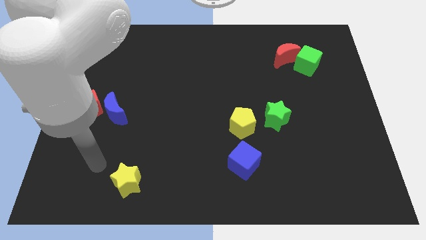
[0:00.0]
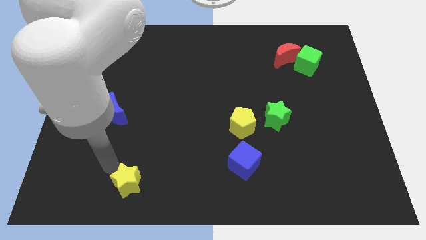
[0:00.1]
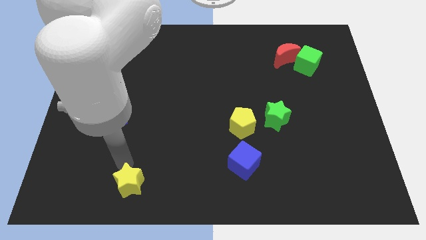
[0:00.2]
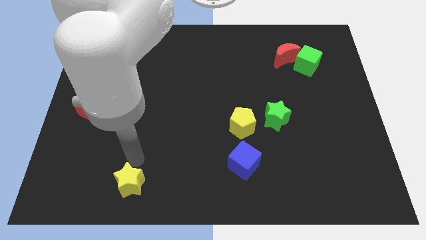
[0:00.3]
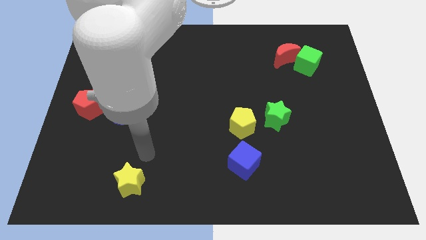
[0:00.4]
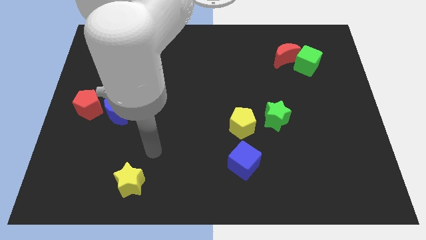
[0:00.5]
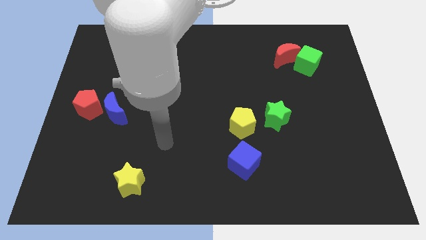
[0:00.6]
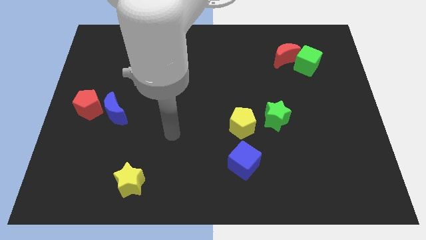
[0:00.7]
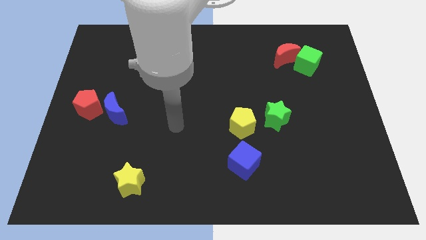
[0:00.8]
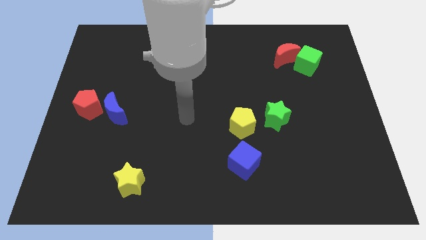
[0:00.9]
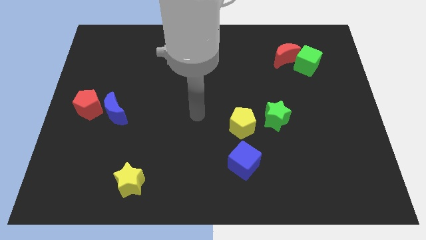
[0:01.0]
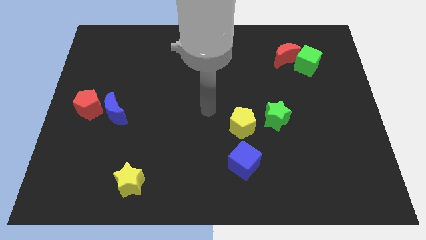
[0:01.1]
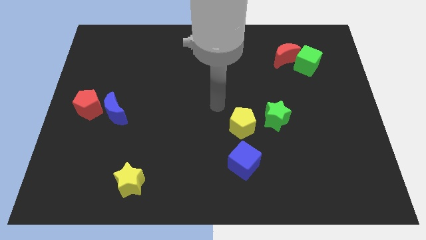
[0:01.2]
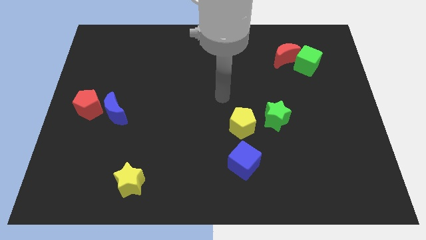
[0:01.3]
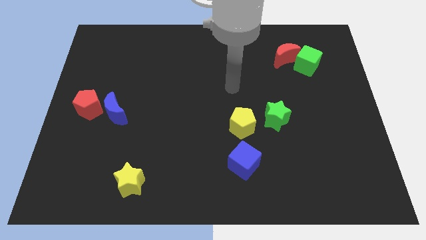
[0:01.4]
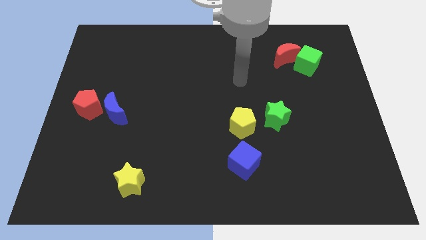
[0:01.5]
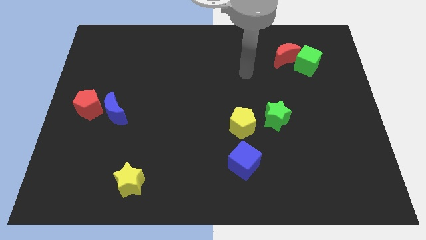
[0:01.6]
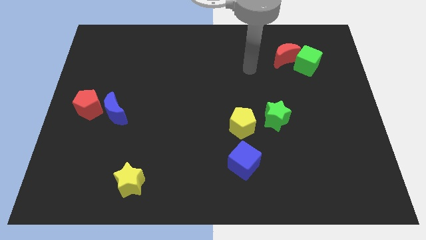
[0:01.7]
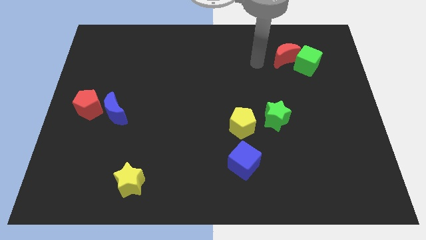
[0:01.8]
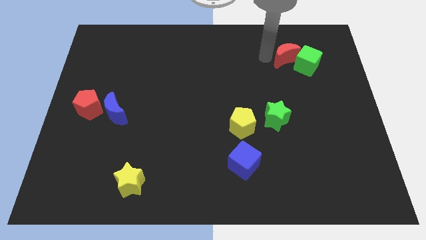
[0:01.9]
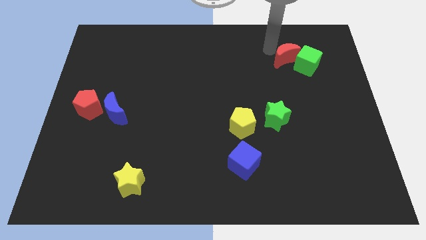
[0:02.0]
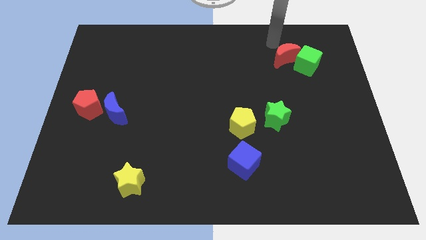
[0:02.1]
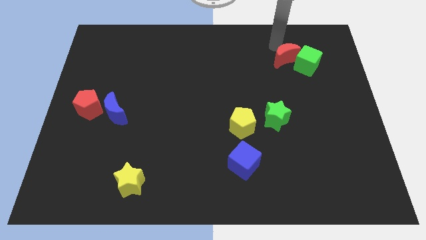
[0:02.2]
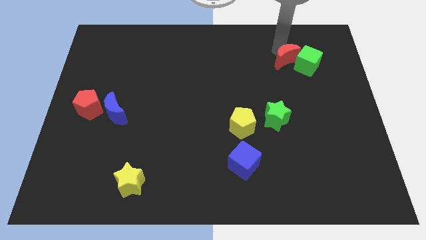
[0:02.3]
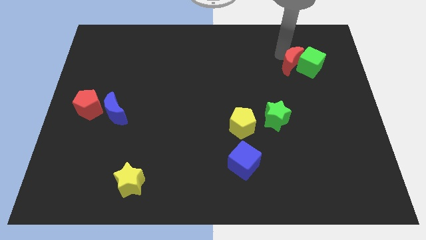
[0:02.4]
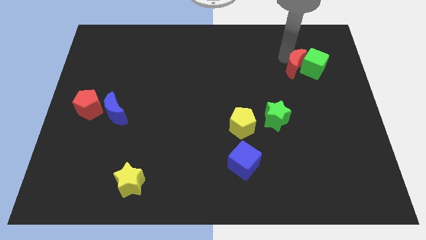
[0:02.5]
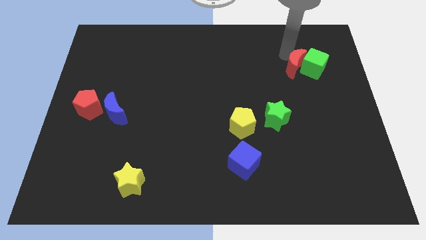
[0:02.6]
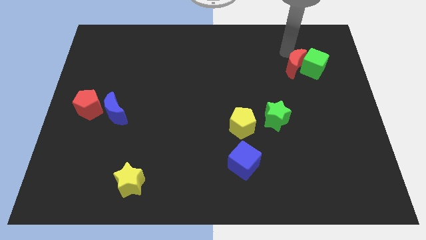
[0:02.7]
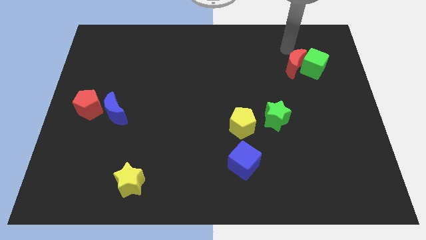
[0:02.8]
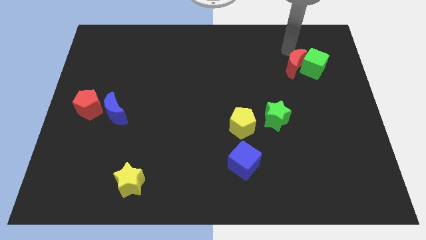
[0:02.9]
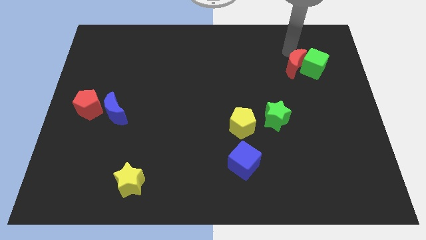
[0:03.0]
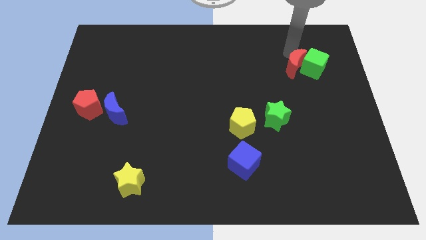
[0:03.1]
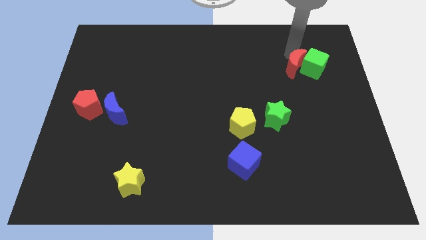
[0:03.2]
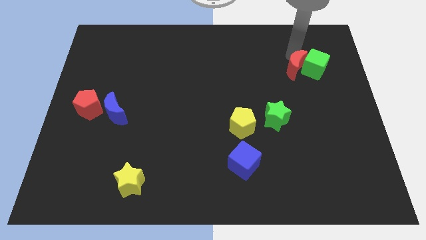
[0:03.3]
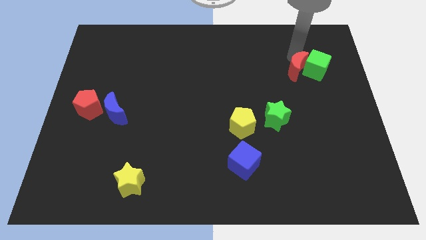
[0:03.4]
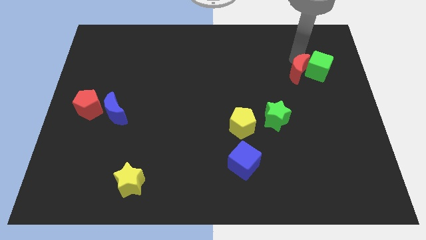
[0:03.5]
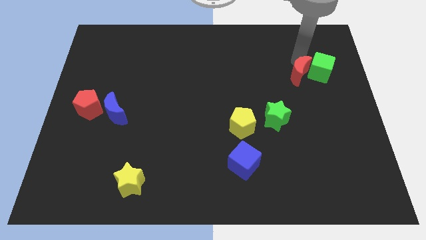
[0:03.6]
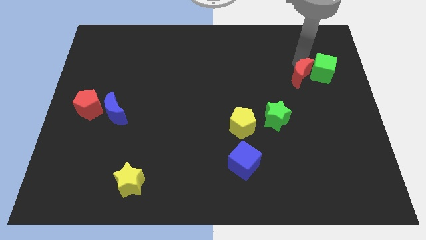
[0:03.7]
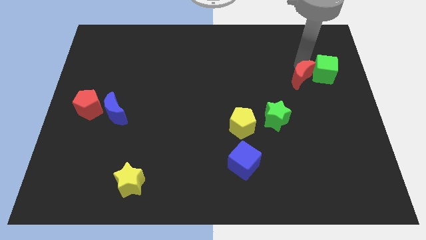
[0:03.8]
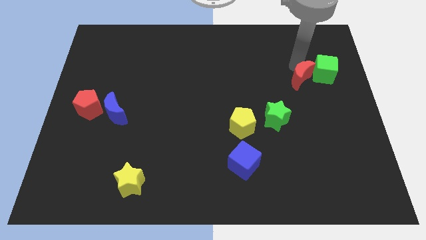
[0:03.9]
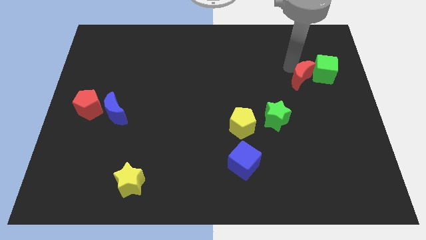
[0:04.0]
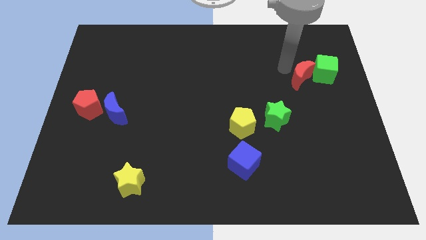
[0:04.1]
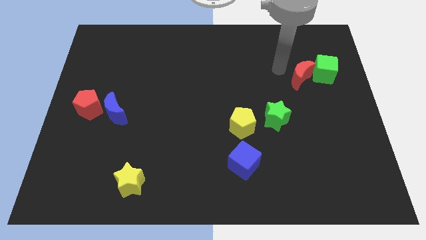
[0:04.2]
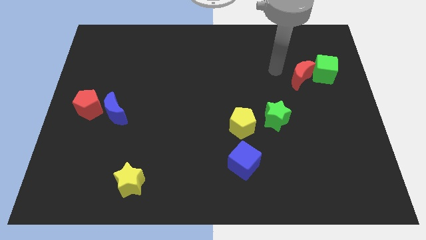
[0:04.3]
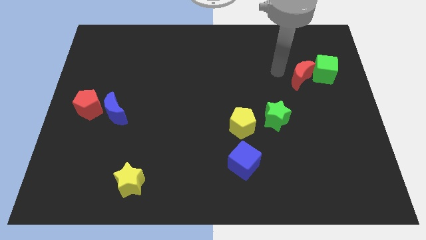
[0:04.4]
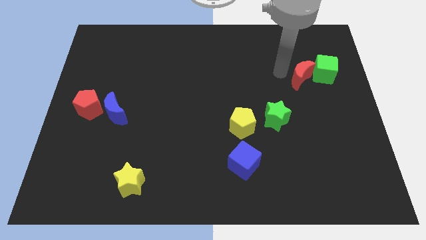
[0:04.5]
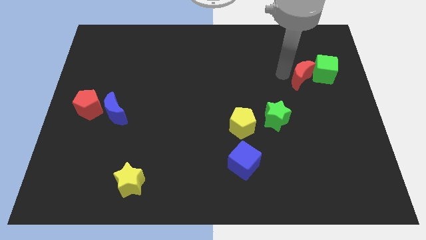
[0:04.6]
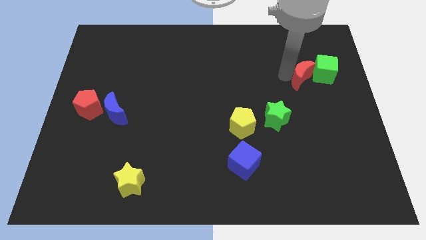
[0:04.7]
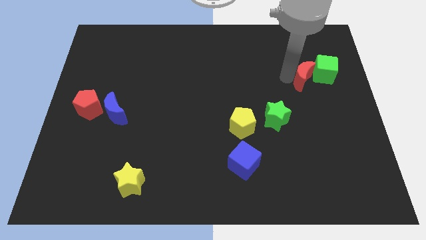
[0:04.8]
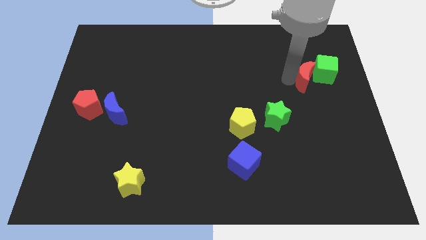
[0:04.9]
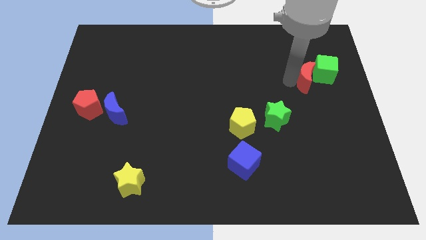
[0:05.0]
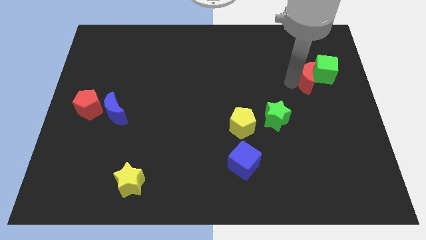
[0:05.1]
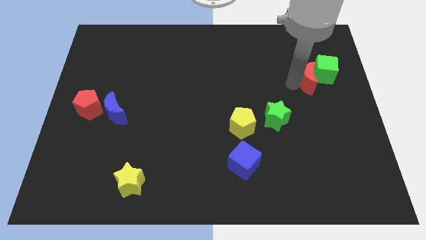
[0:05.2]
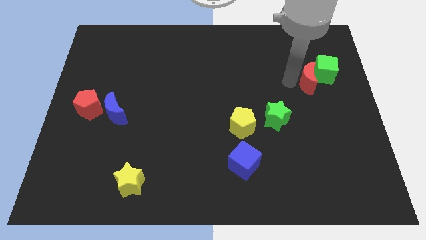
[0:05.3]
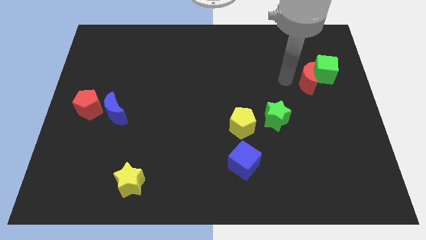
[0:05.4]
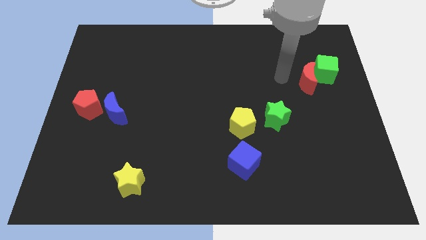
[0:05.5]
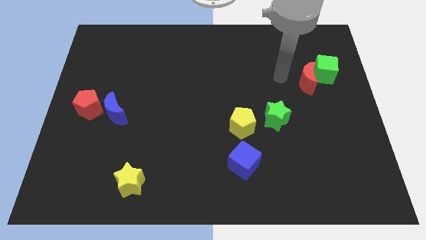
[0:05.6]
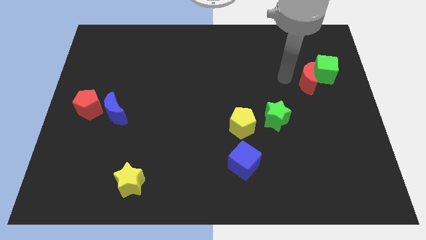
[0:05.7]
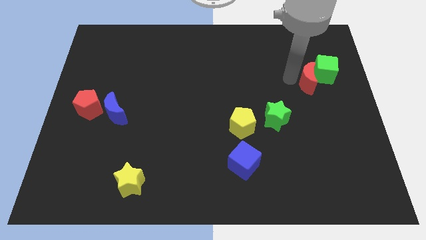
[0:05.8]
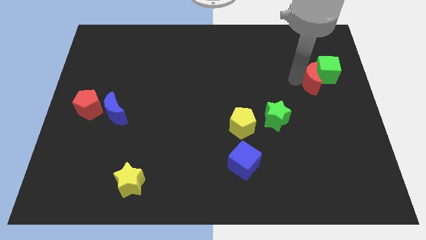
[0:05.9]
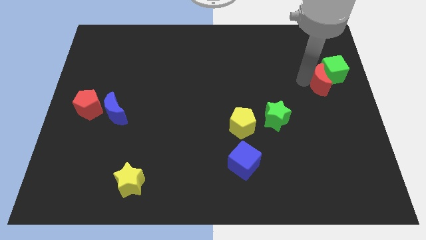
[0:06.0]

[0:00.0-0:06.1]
slide the red moon to the right side

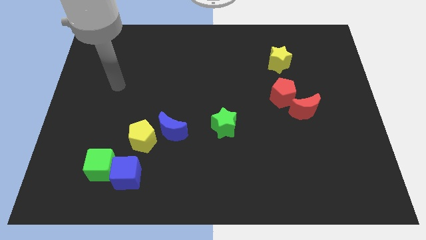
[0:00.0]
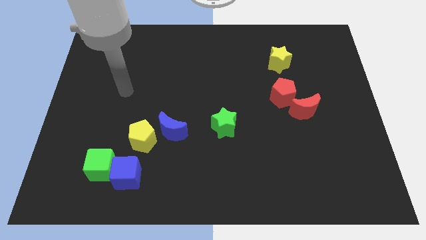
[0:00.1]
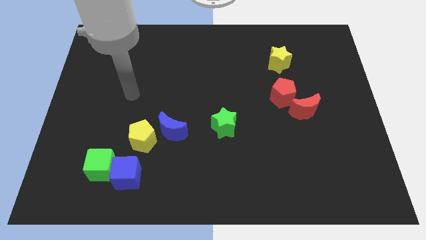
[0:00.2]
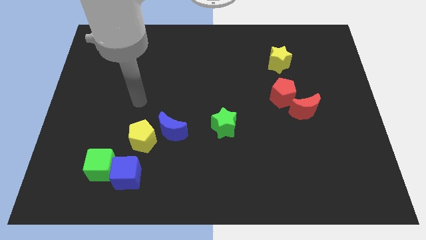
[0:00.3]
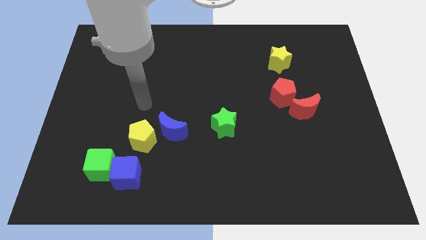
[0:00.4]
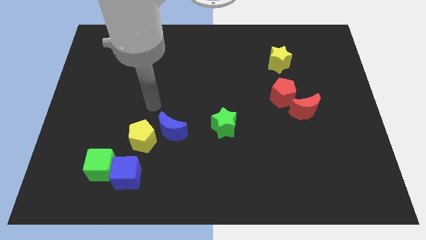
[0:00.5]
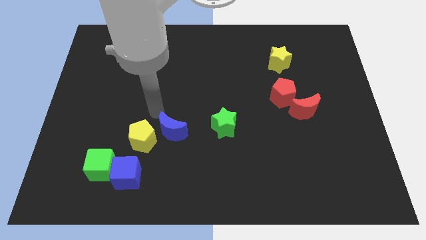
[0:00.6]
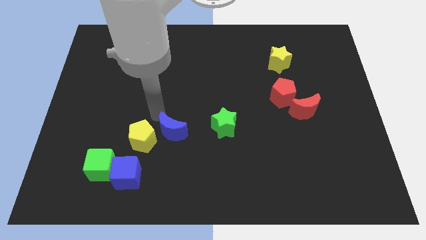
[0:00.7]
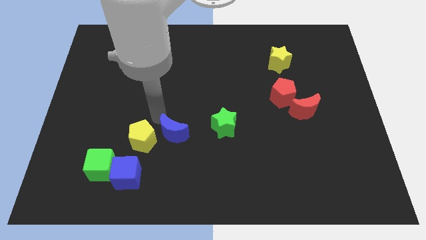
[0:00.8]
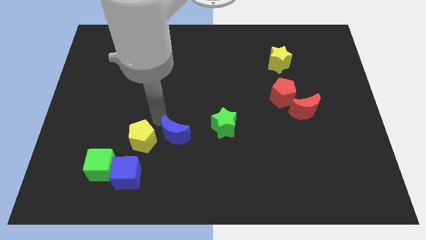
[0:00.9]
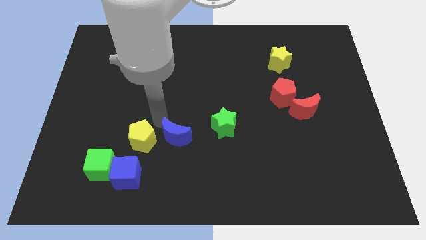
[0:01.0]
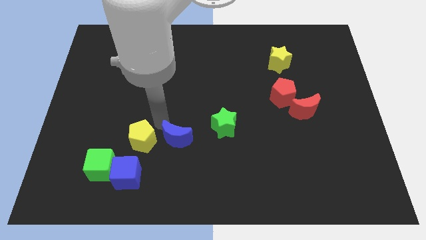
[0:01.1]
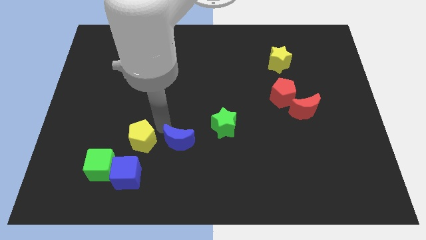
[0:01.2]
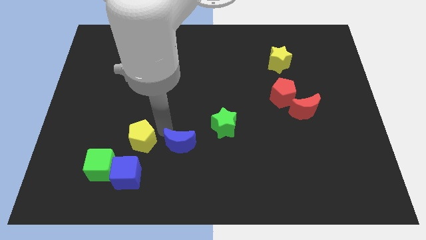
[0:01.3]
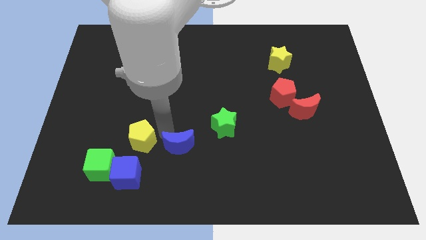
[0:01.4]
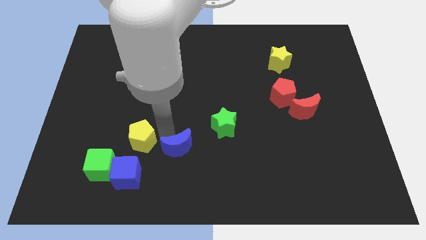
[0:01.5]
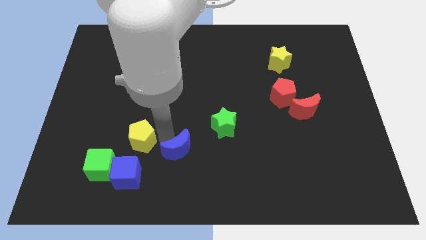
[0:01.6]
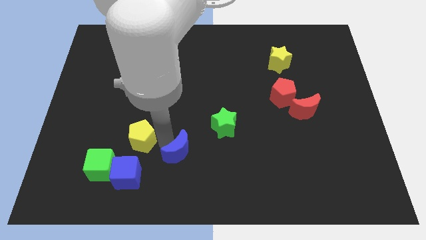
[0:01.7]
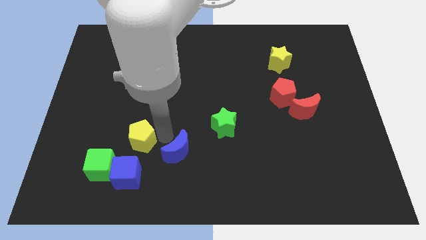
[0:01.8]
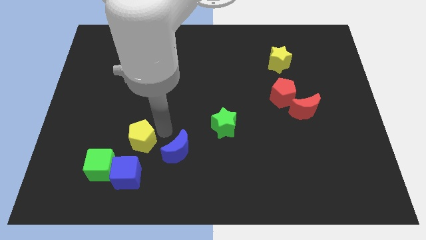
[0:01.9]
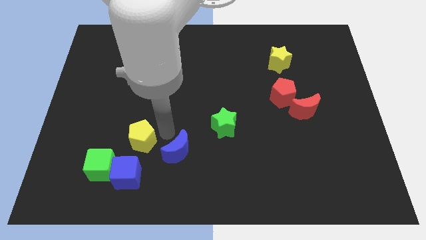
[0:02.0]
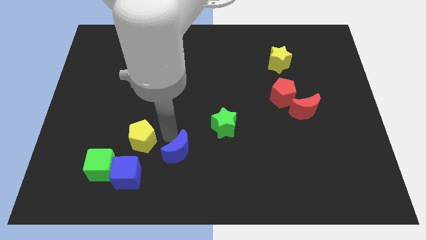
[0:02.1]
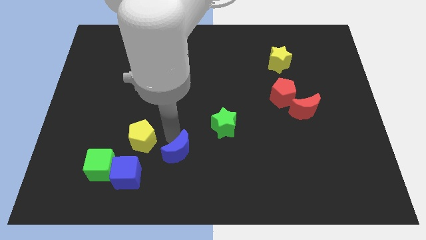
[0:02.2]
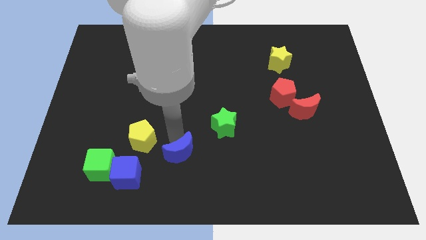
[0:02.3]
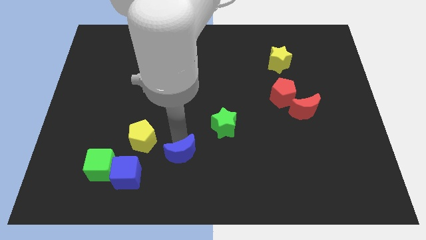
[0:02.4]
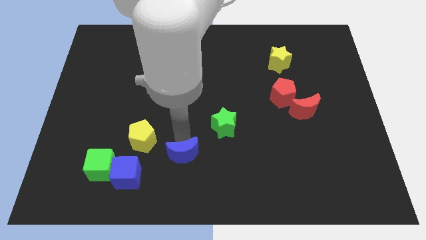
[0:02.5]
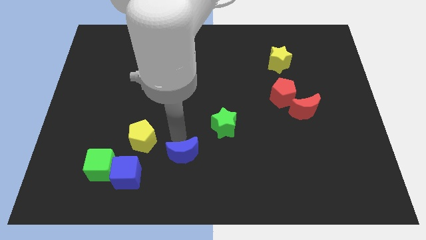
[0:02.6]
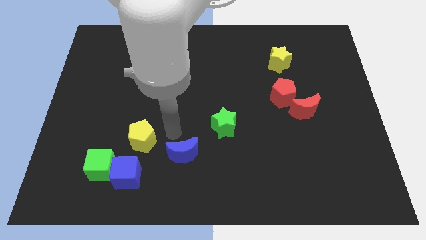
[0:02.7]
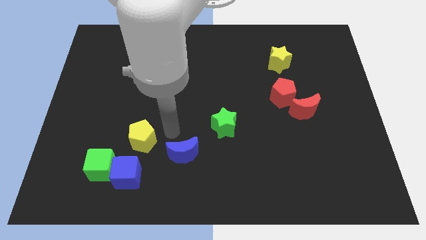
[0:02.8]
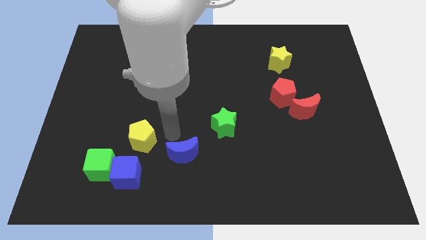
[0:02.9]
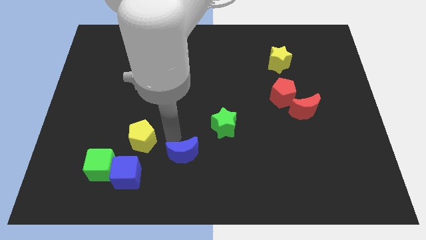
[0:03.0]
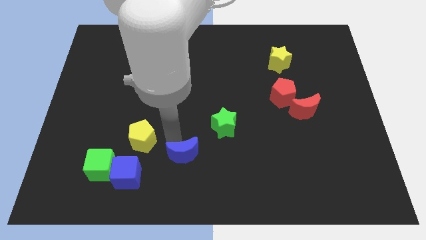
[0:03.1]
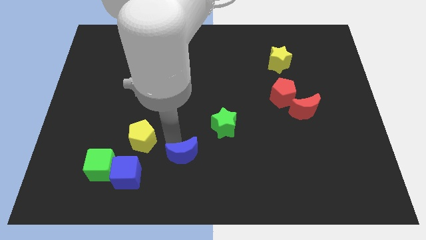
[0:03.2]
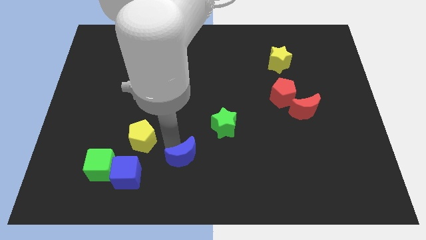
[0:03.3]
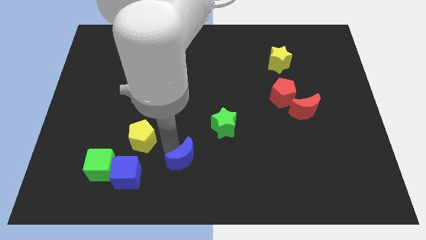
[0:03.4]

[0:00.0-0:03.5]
slide the blue moon to the bottom
